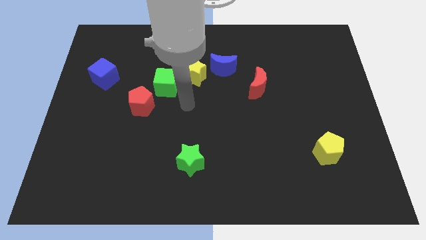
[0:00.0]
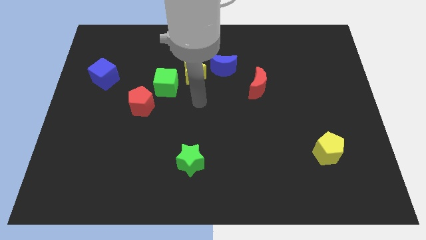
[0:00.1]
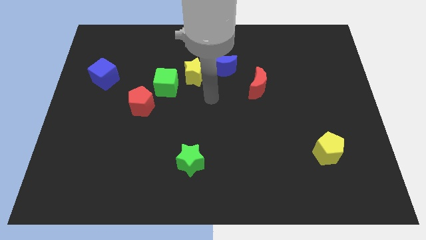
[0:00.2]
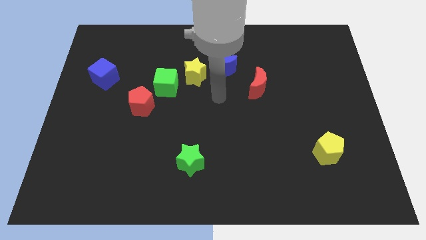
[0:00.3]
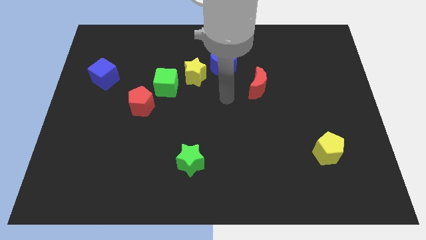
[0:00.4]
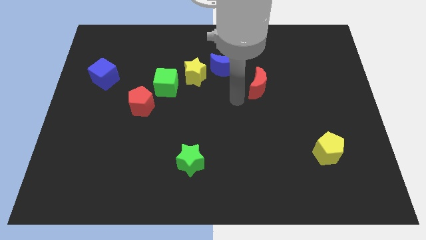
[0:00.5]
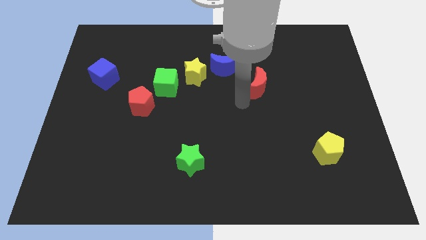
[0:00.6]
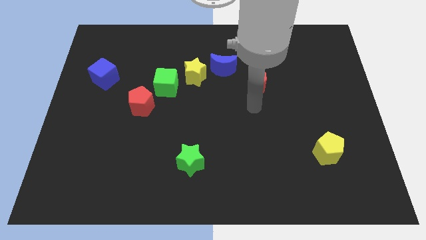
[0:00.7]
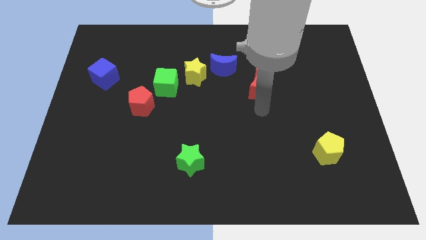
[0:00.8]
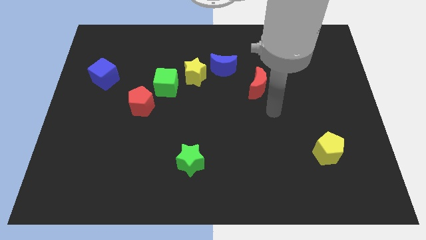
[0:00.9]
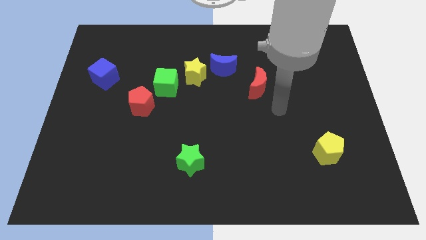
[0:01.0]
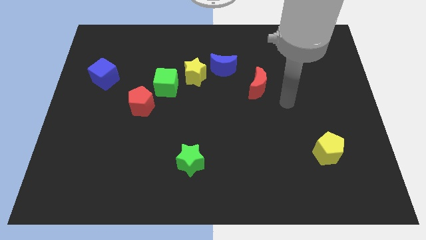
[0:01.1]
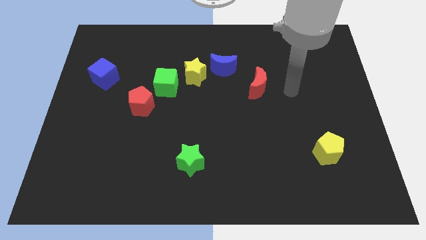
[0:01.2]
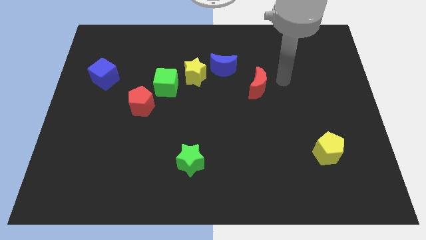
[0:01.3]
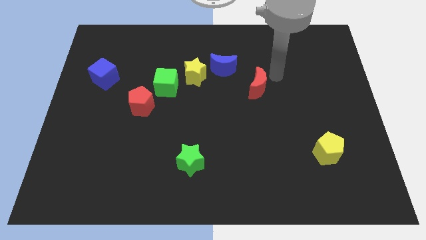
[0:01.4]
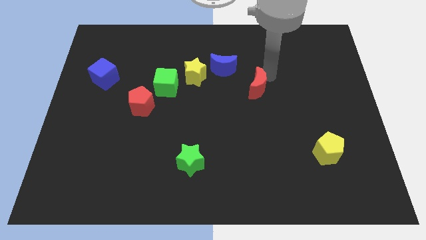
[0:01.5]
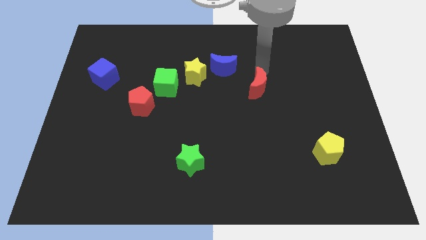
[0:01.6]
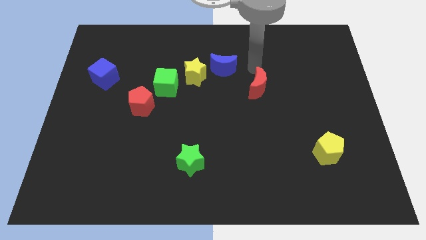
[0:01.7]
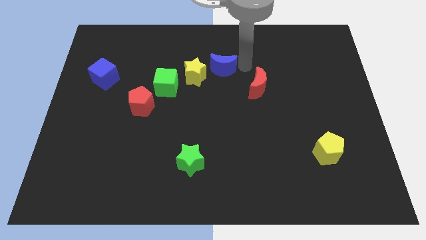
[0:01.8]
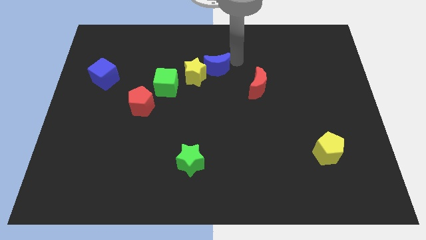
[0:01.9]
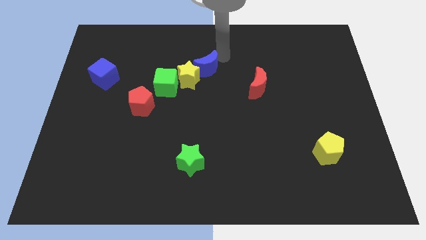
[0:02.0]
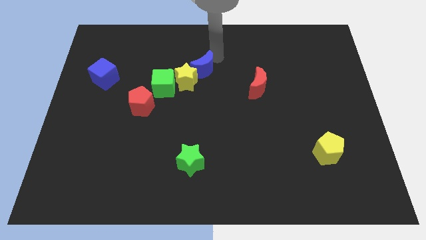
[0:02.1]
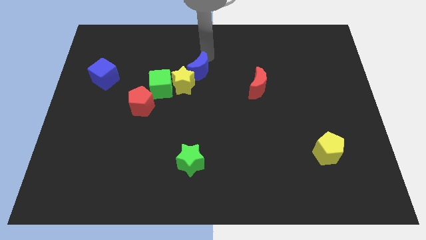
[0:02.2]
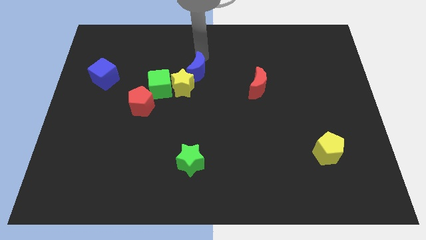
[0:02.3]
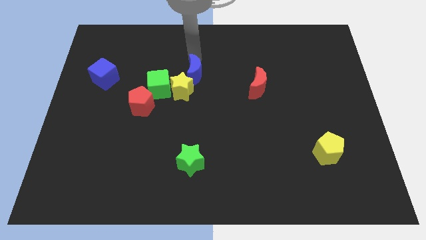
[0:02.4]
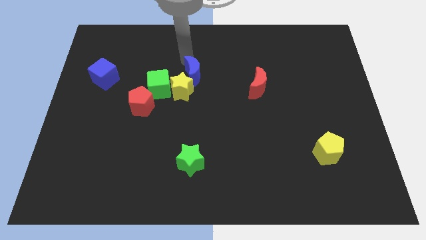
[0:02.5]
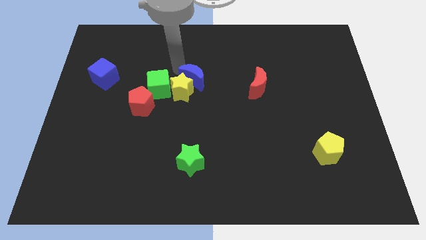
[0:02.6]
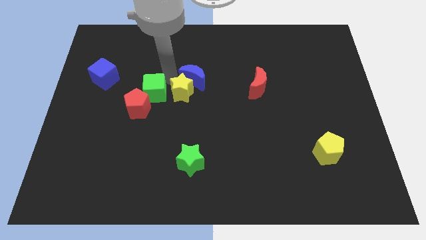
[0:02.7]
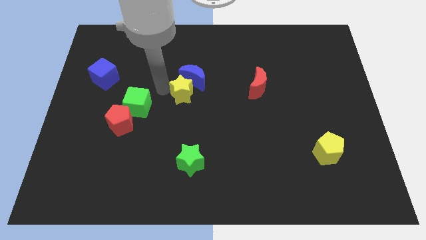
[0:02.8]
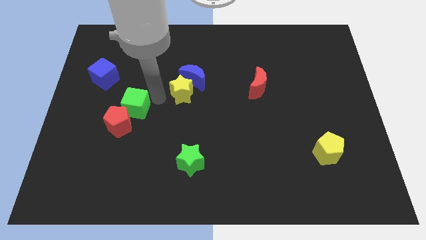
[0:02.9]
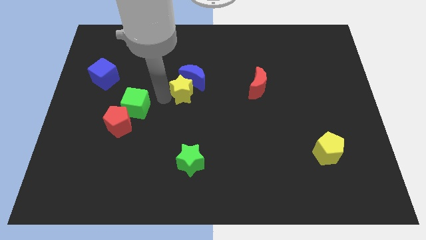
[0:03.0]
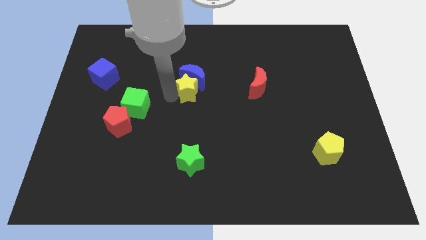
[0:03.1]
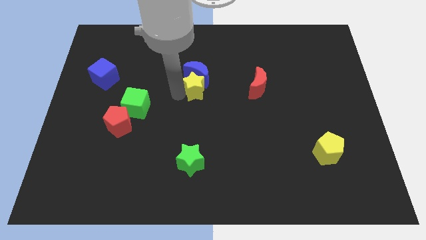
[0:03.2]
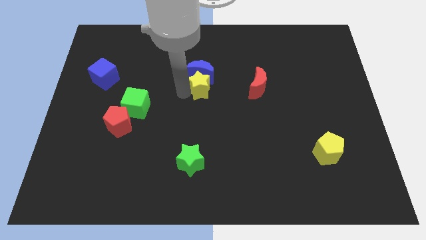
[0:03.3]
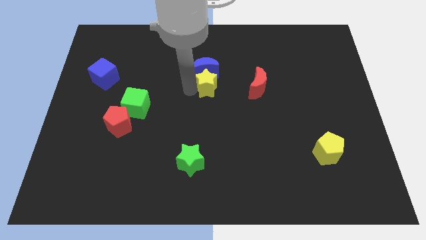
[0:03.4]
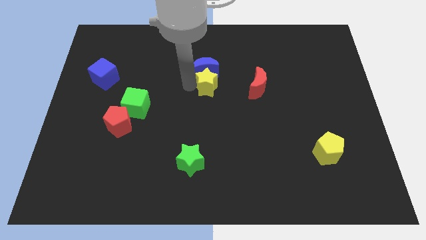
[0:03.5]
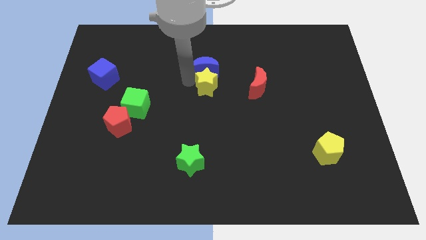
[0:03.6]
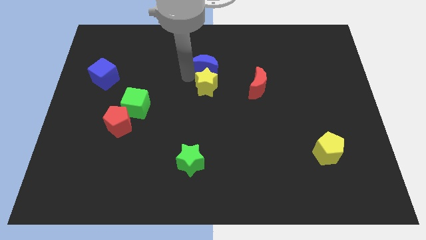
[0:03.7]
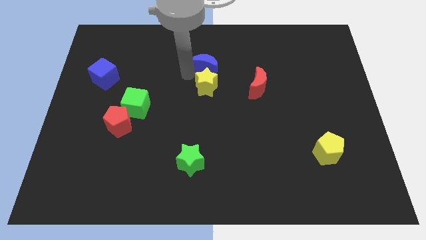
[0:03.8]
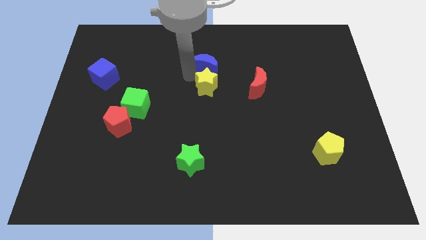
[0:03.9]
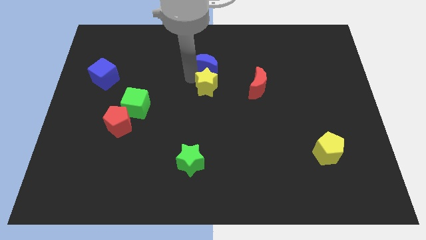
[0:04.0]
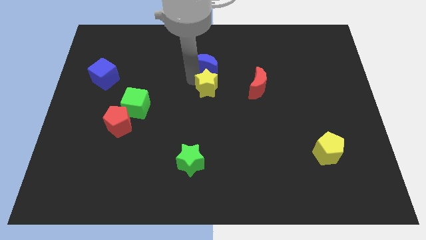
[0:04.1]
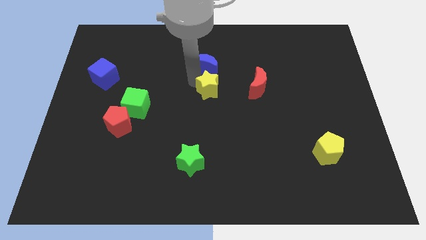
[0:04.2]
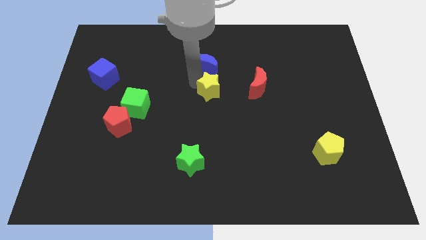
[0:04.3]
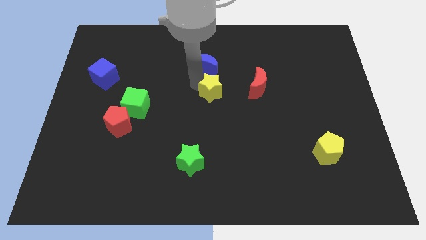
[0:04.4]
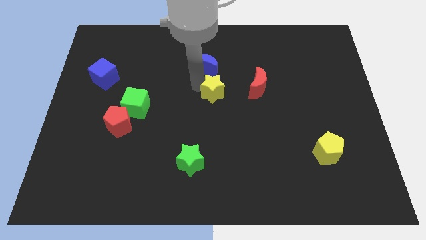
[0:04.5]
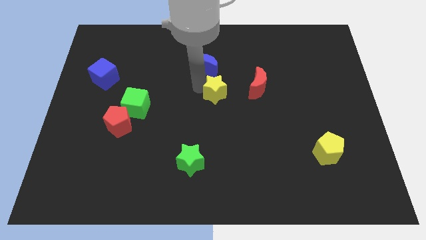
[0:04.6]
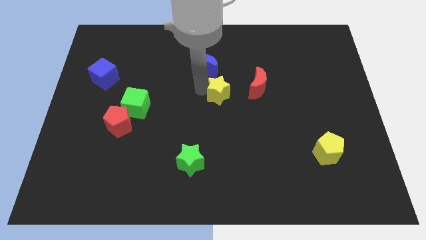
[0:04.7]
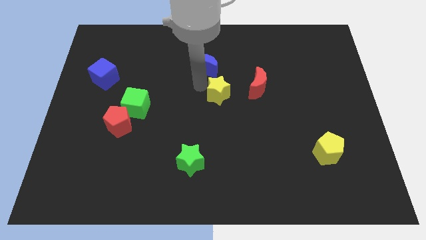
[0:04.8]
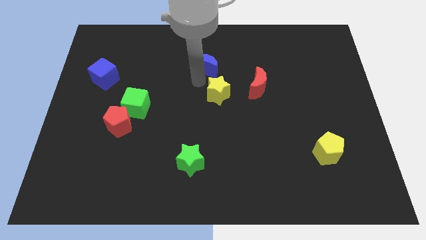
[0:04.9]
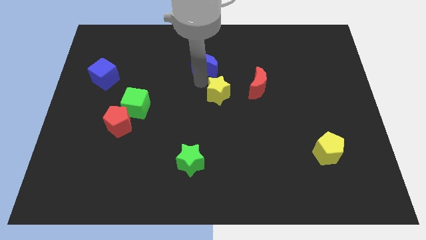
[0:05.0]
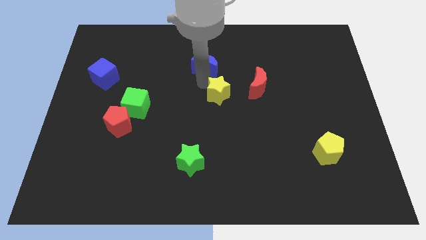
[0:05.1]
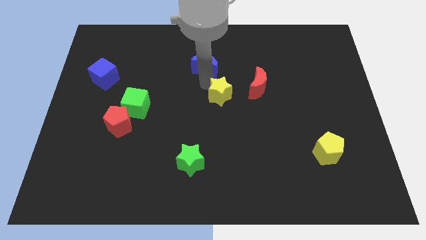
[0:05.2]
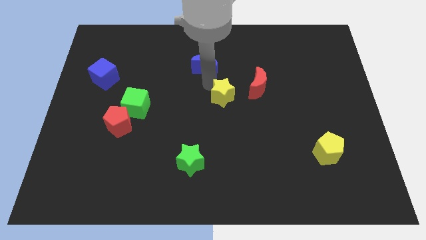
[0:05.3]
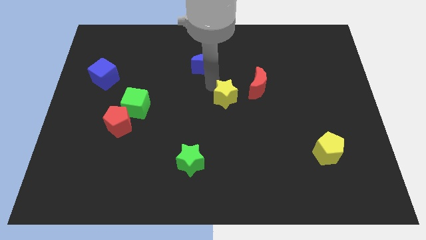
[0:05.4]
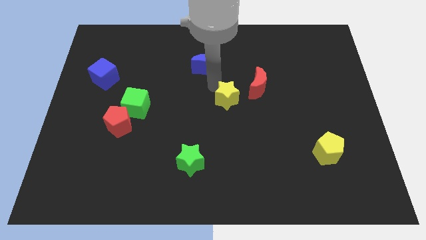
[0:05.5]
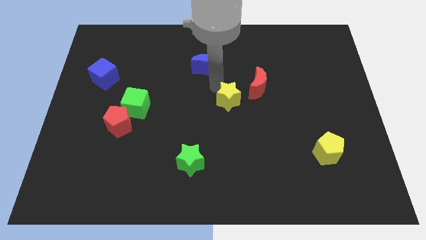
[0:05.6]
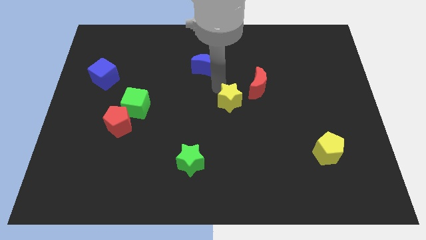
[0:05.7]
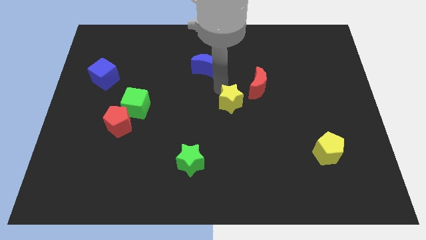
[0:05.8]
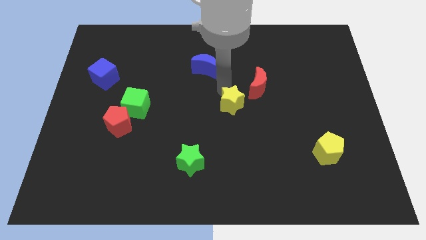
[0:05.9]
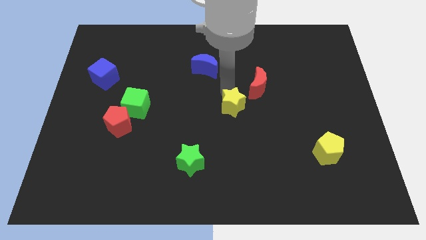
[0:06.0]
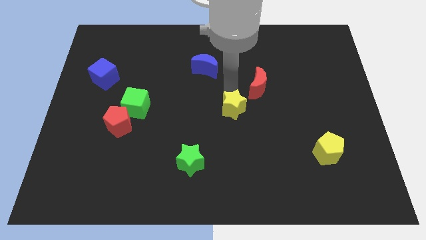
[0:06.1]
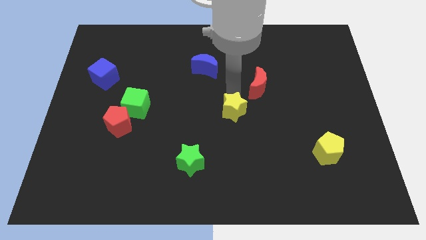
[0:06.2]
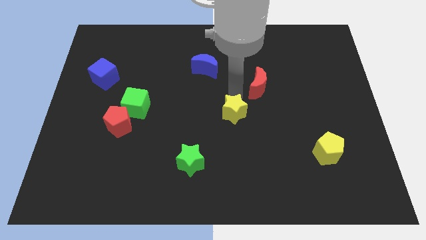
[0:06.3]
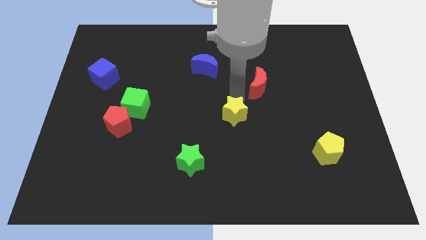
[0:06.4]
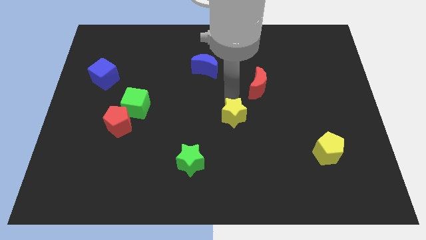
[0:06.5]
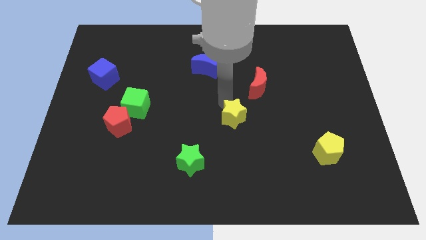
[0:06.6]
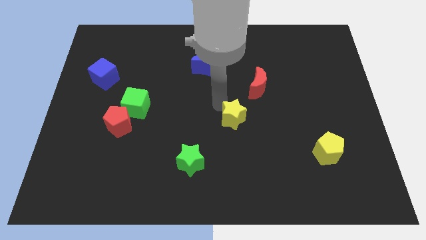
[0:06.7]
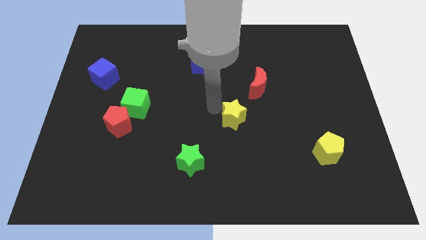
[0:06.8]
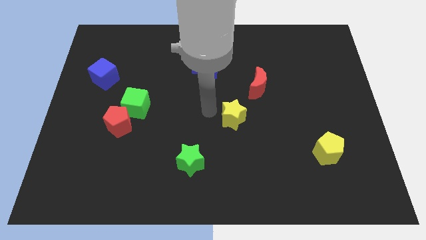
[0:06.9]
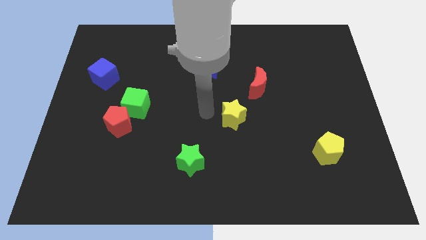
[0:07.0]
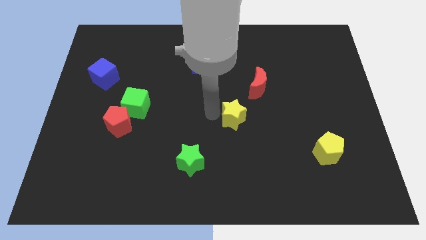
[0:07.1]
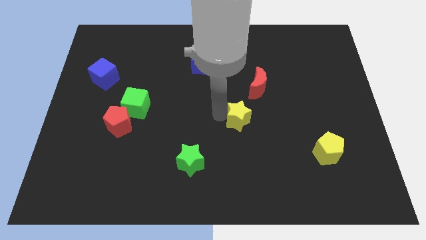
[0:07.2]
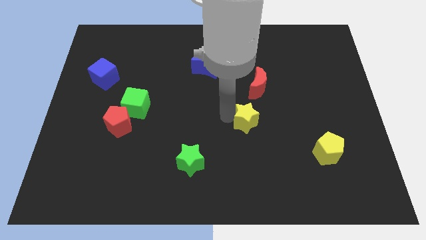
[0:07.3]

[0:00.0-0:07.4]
put the yellow star to the bottom side of the red moon
